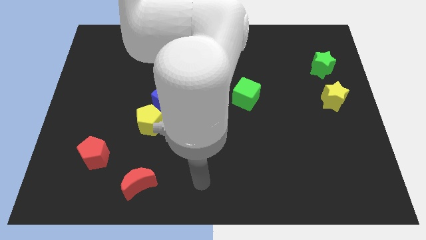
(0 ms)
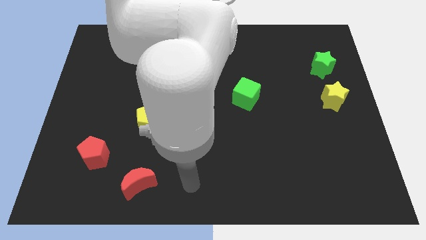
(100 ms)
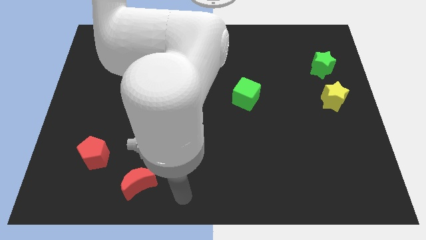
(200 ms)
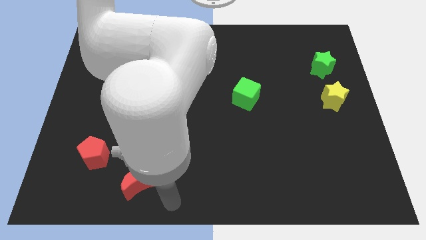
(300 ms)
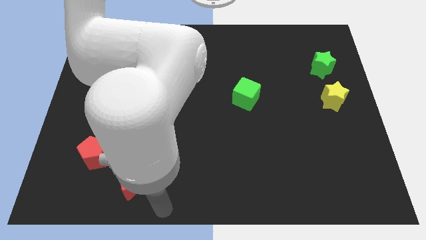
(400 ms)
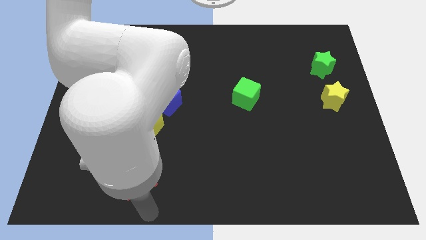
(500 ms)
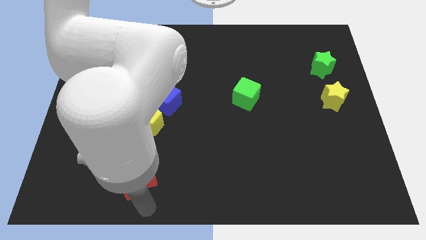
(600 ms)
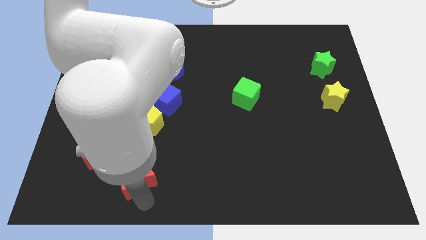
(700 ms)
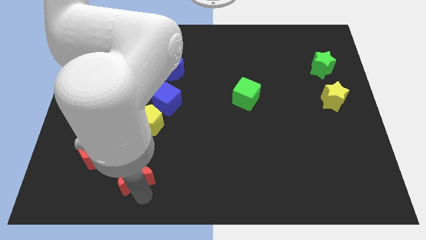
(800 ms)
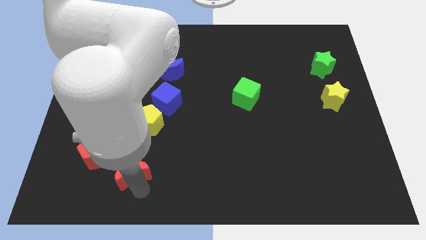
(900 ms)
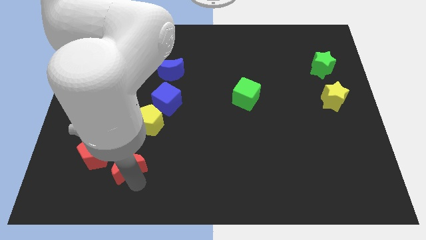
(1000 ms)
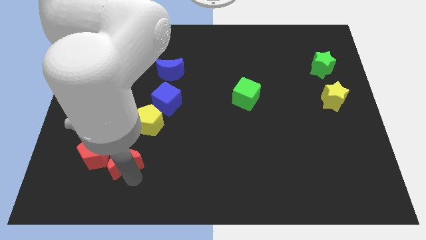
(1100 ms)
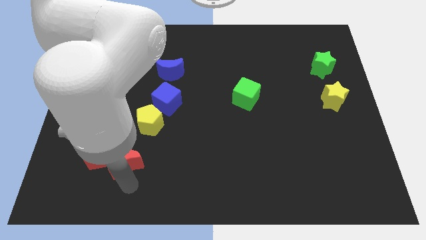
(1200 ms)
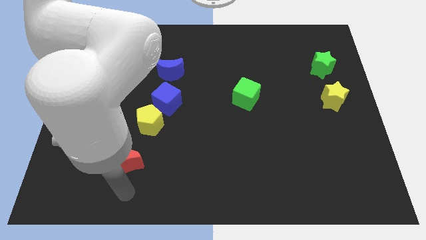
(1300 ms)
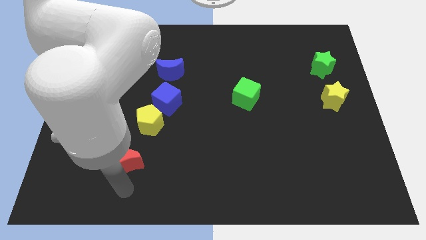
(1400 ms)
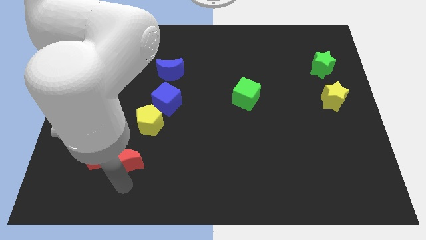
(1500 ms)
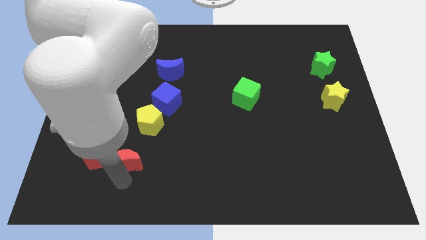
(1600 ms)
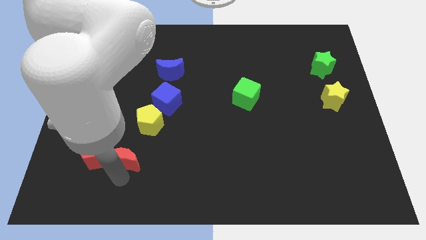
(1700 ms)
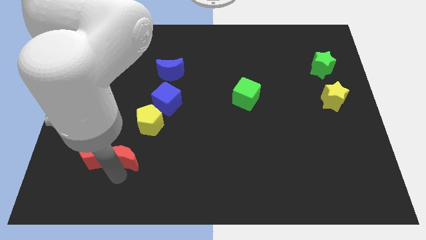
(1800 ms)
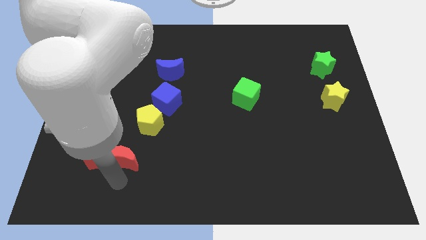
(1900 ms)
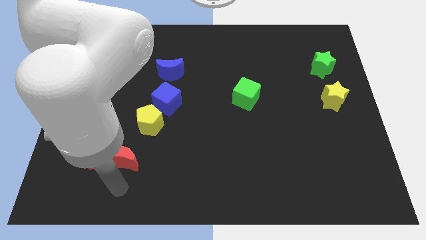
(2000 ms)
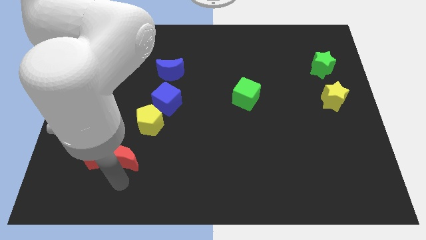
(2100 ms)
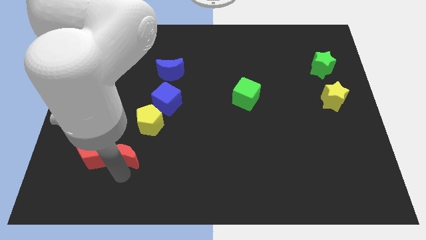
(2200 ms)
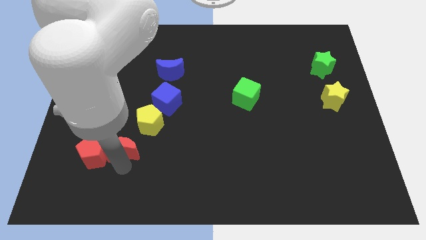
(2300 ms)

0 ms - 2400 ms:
slightly push the red moon upwards

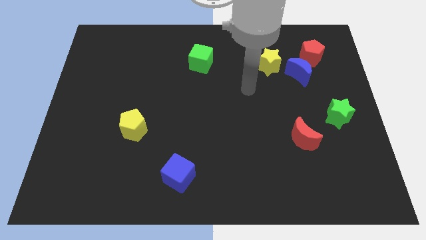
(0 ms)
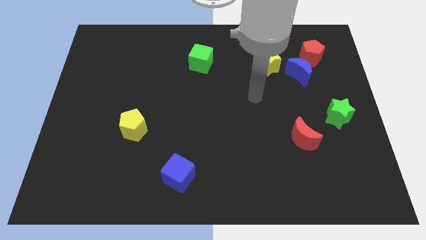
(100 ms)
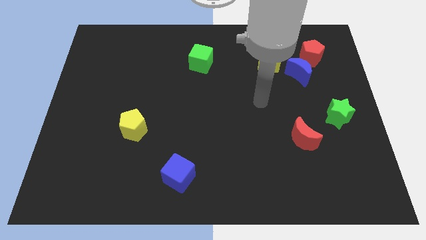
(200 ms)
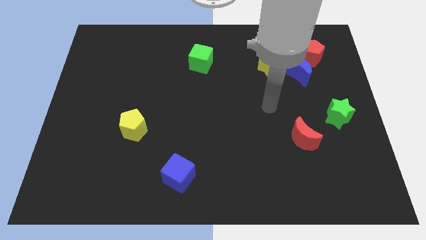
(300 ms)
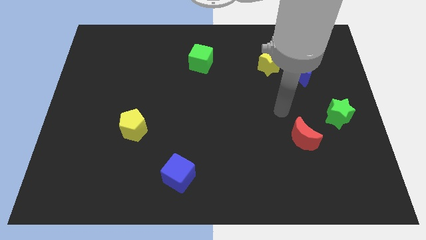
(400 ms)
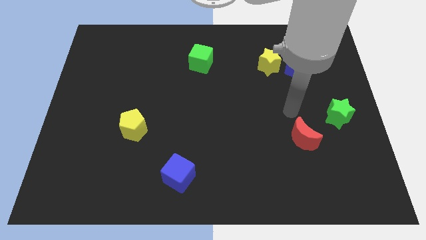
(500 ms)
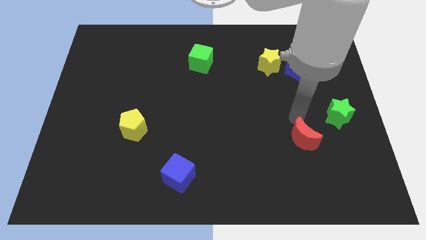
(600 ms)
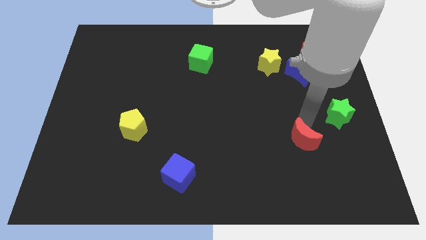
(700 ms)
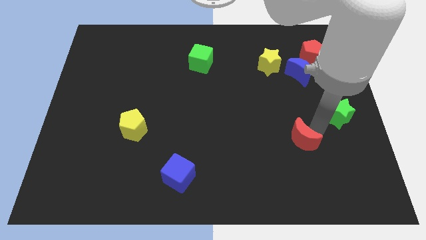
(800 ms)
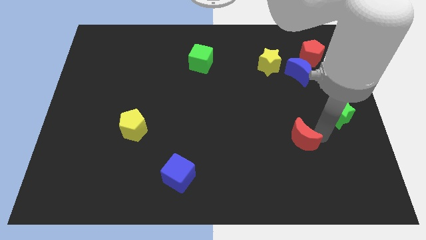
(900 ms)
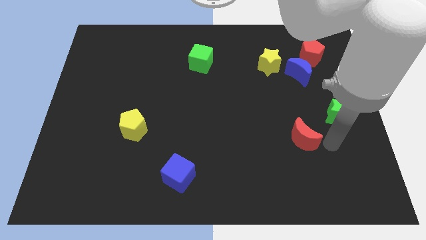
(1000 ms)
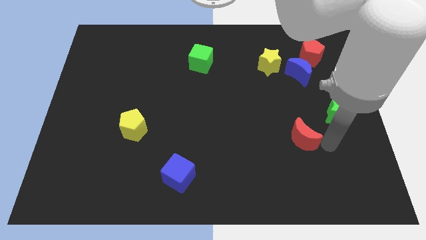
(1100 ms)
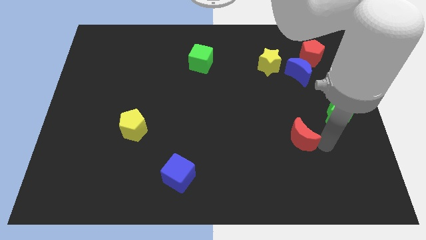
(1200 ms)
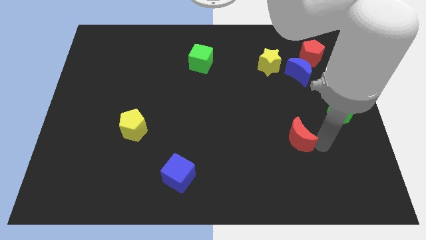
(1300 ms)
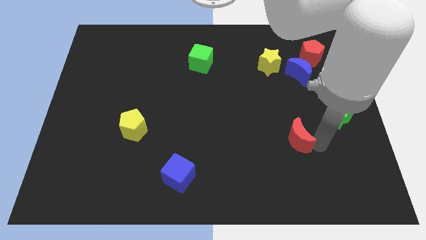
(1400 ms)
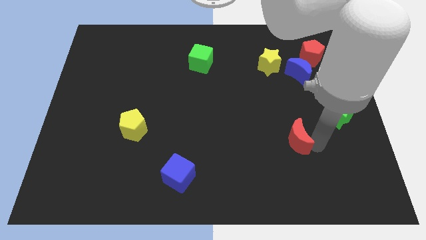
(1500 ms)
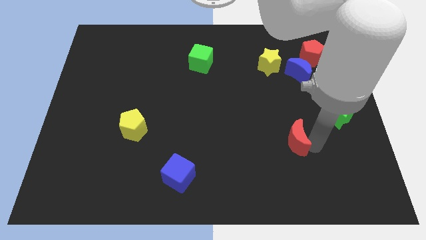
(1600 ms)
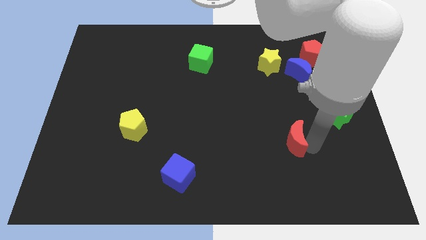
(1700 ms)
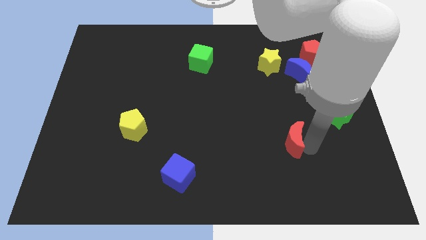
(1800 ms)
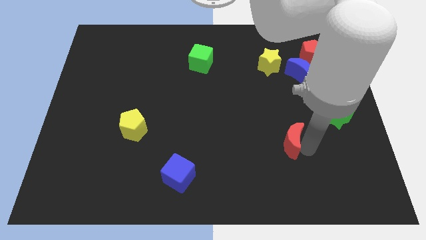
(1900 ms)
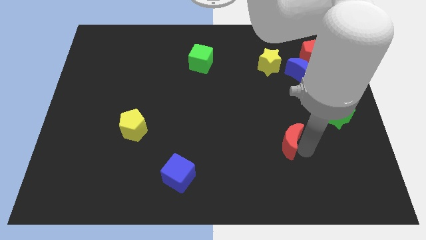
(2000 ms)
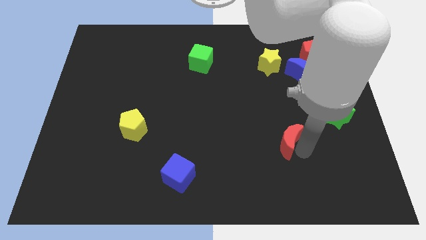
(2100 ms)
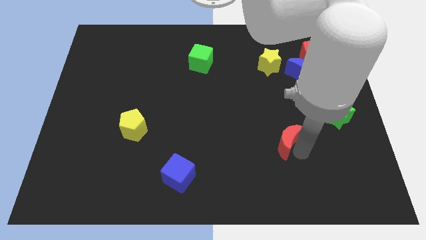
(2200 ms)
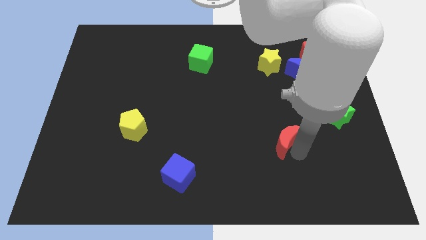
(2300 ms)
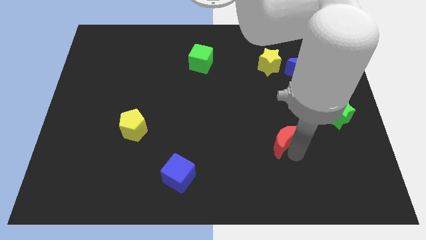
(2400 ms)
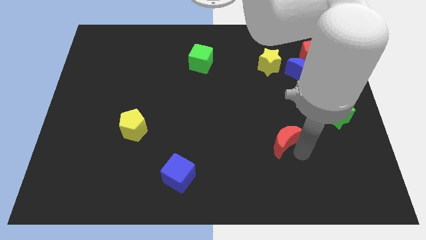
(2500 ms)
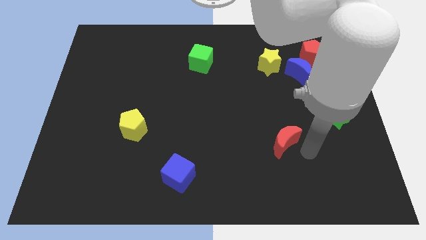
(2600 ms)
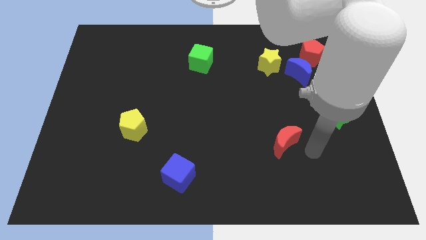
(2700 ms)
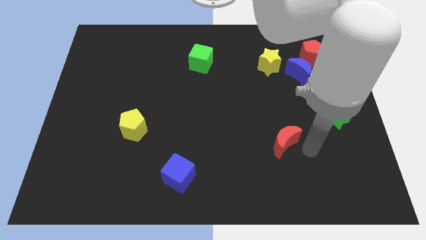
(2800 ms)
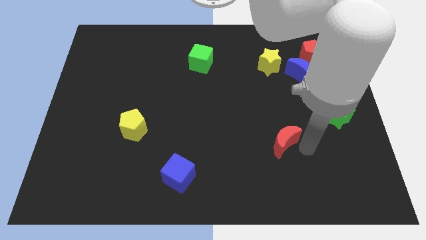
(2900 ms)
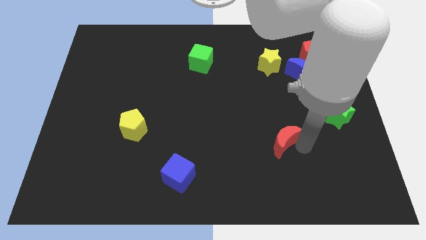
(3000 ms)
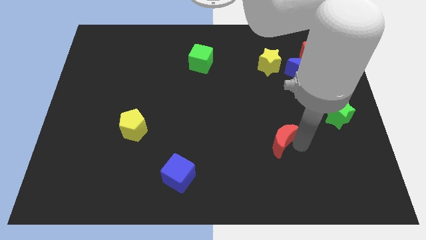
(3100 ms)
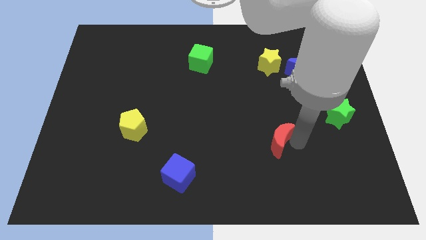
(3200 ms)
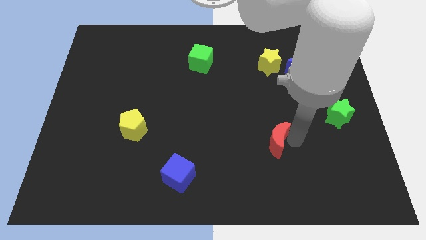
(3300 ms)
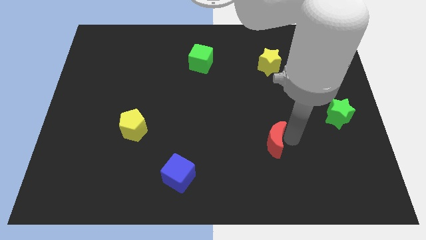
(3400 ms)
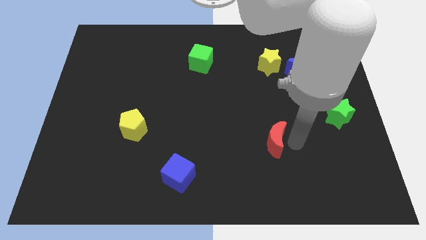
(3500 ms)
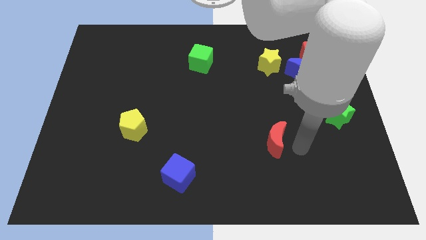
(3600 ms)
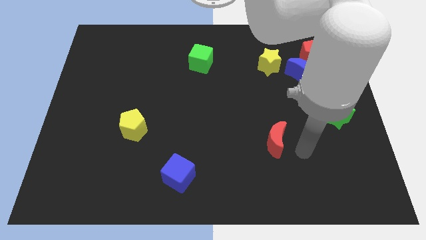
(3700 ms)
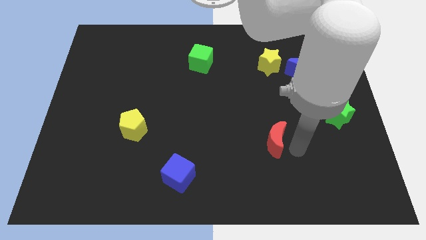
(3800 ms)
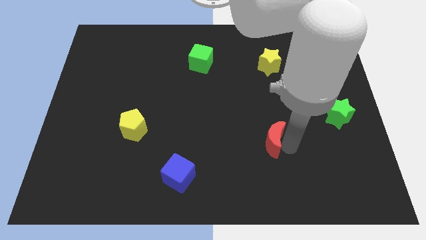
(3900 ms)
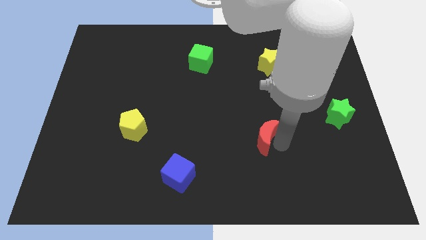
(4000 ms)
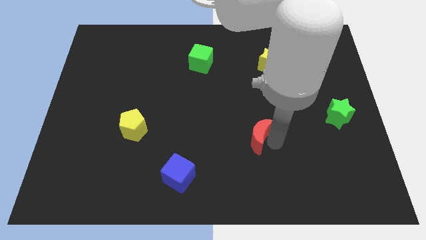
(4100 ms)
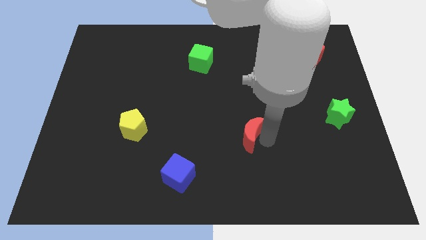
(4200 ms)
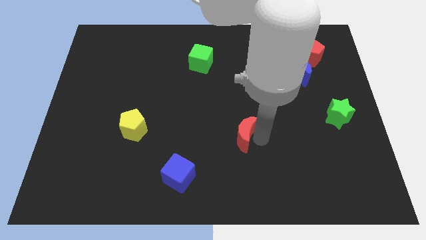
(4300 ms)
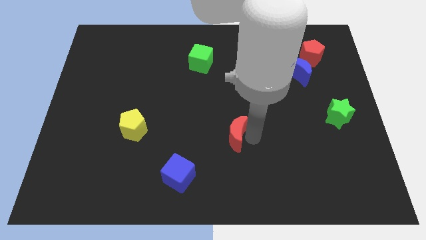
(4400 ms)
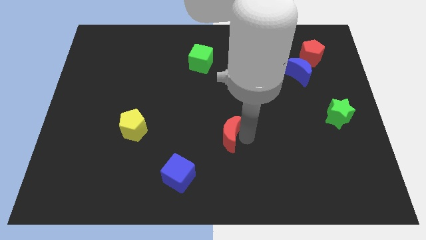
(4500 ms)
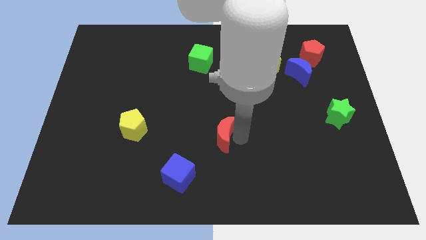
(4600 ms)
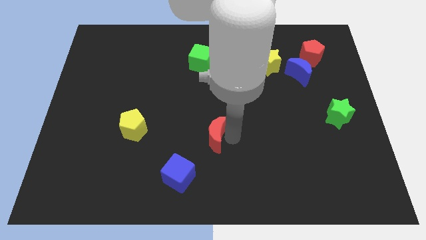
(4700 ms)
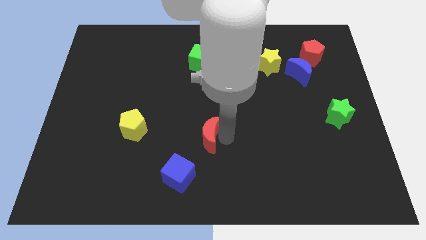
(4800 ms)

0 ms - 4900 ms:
move the red moon left

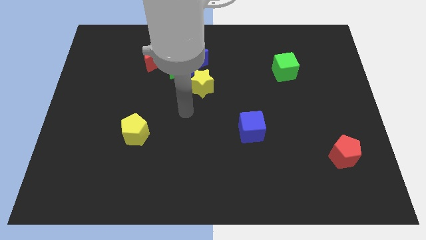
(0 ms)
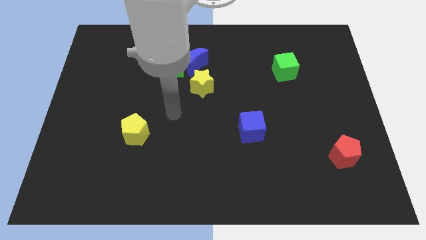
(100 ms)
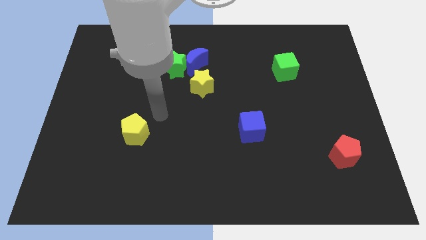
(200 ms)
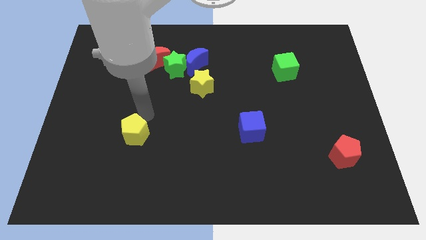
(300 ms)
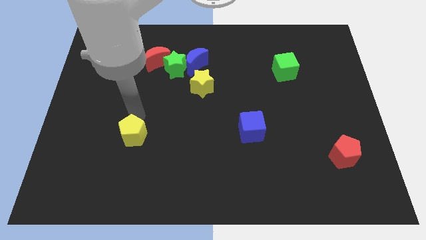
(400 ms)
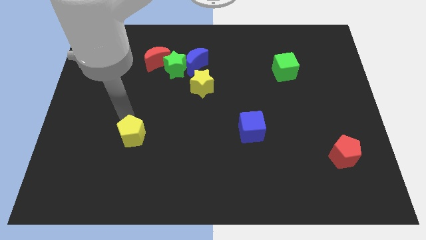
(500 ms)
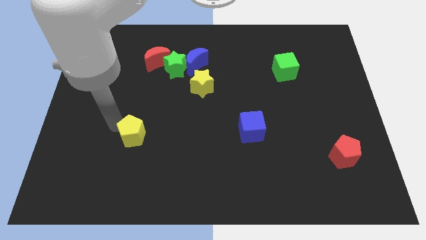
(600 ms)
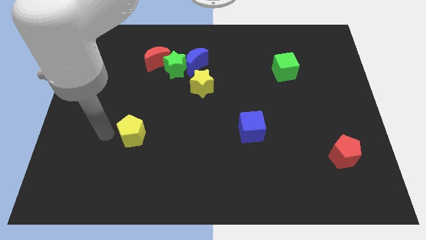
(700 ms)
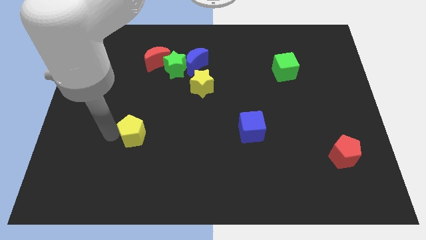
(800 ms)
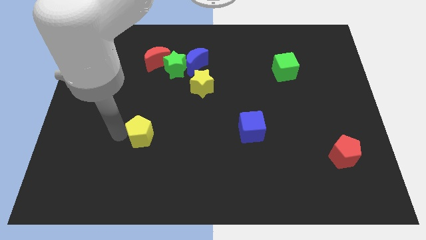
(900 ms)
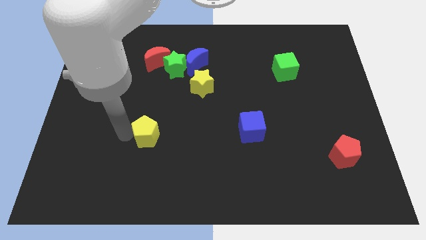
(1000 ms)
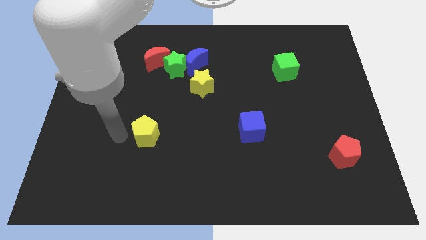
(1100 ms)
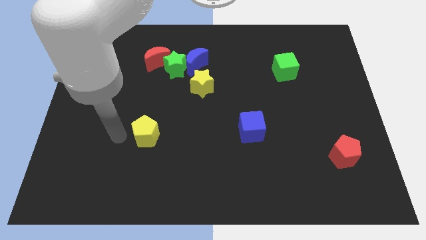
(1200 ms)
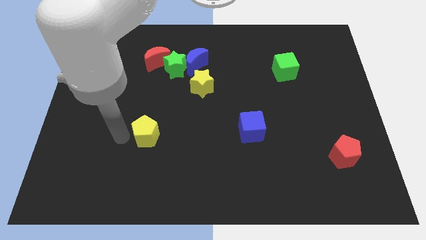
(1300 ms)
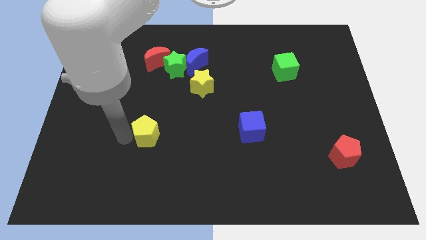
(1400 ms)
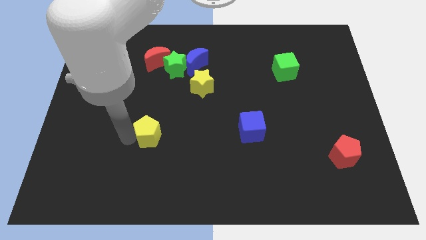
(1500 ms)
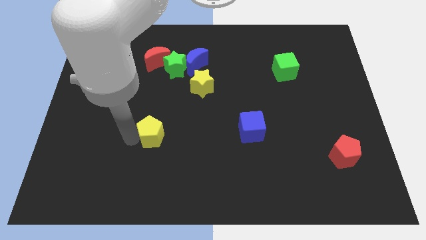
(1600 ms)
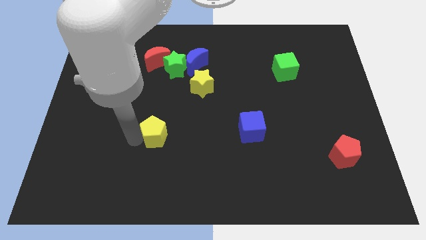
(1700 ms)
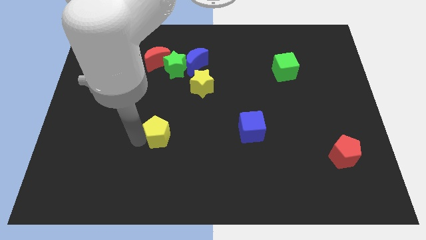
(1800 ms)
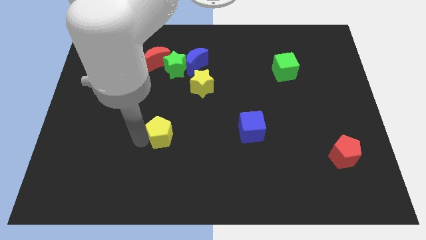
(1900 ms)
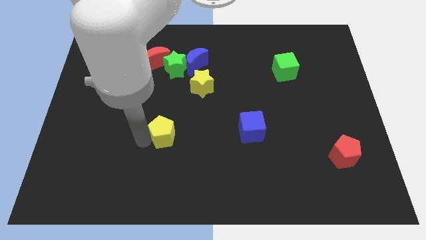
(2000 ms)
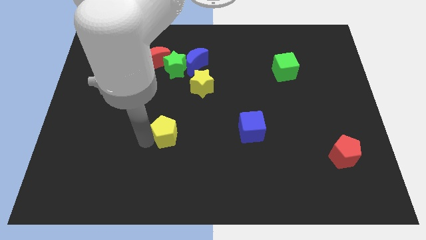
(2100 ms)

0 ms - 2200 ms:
slightly slide the yellow pentagon to the right
